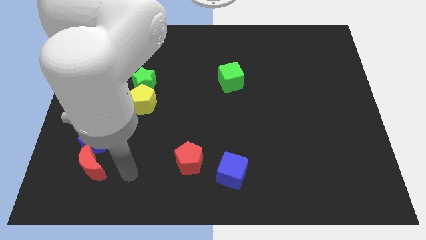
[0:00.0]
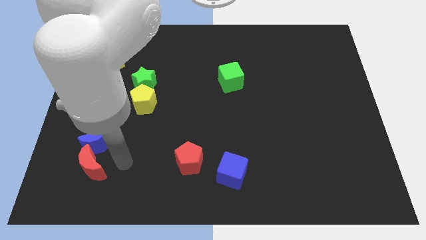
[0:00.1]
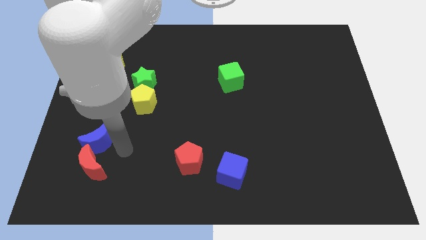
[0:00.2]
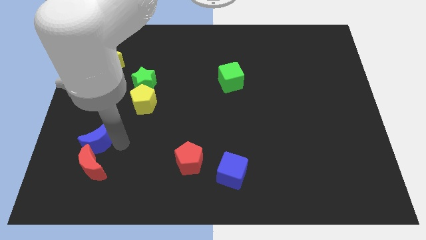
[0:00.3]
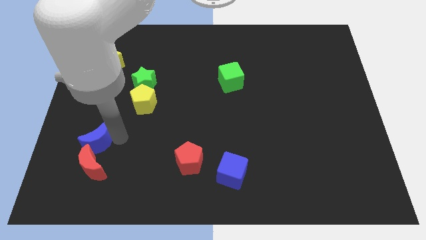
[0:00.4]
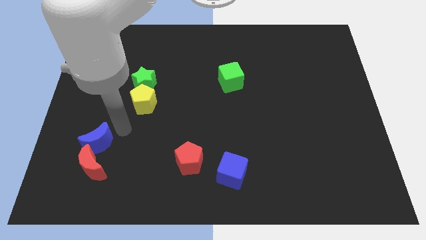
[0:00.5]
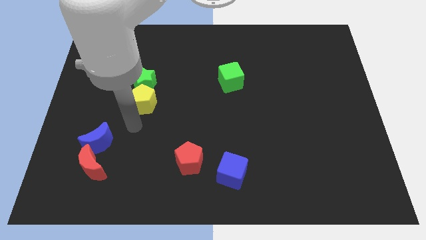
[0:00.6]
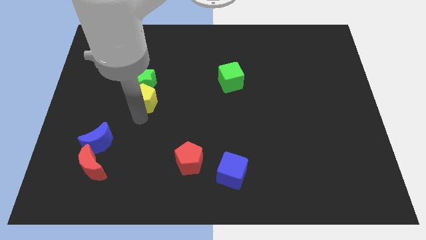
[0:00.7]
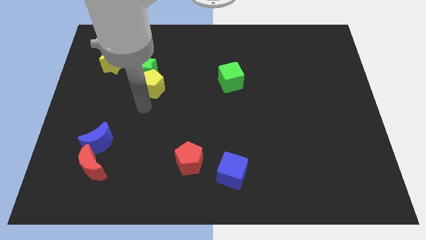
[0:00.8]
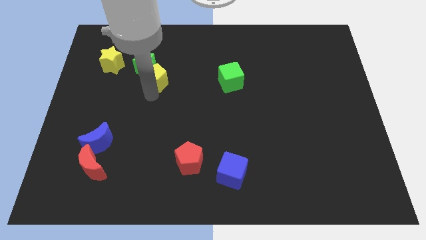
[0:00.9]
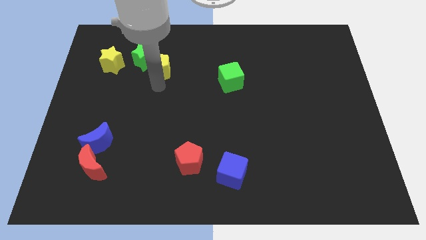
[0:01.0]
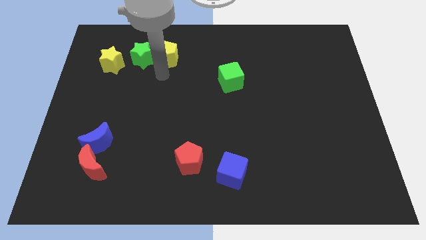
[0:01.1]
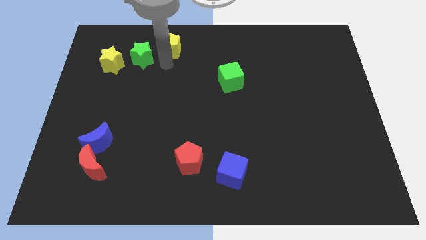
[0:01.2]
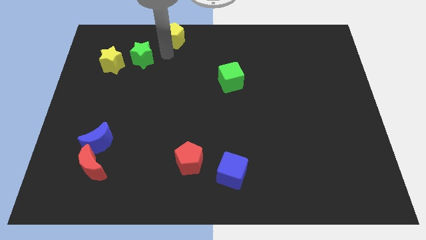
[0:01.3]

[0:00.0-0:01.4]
pull the green star apart from the yellow pentagon

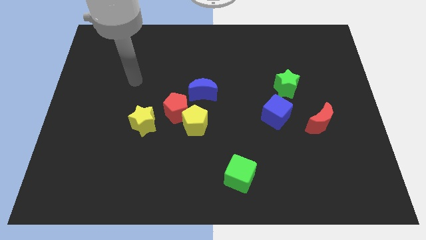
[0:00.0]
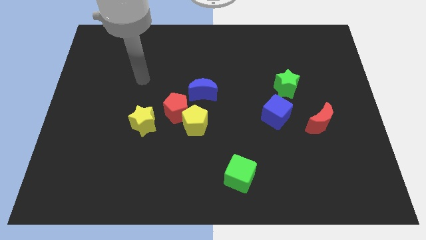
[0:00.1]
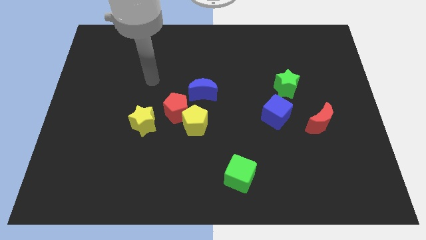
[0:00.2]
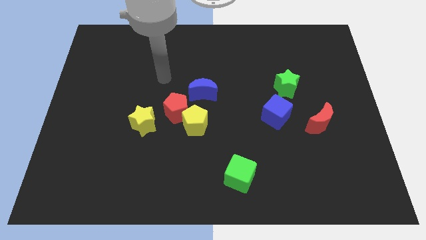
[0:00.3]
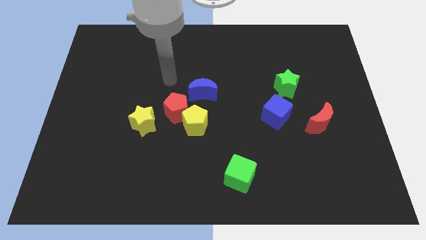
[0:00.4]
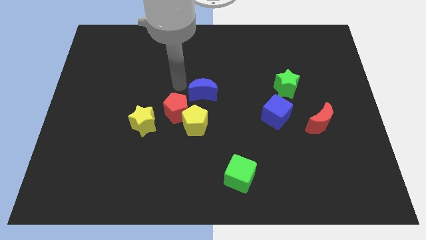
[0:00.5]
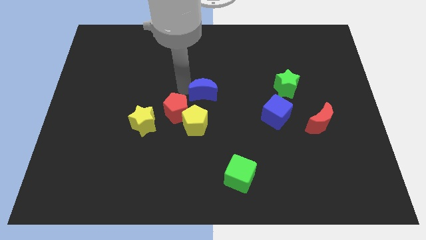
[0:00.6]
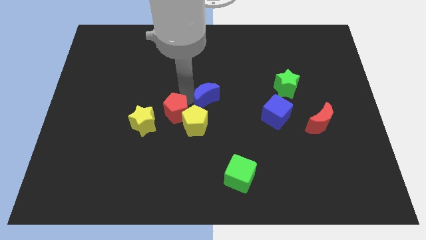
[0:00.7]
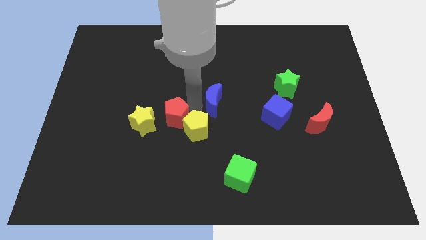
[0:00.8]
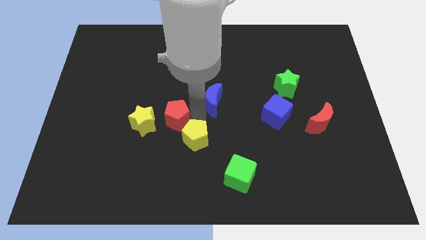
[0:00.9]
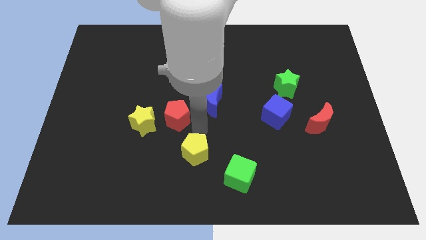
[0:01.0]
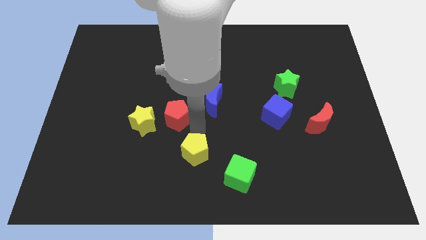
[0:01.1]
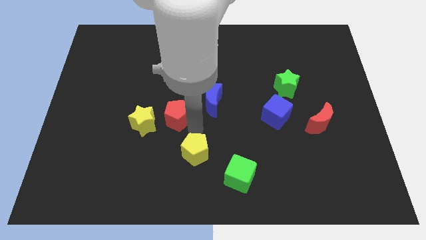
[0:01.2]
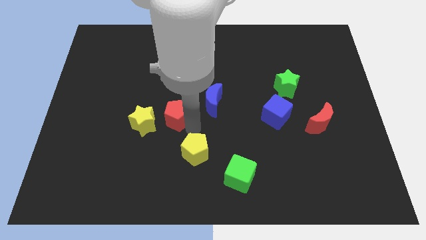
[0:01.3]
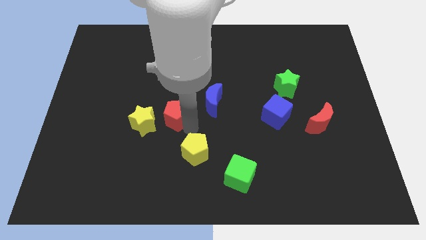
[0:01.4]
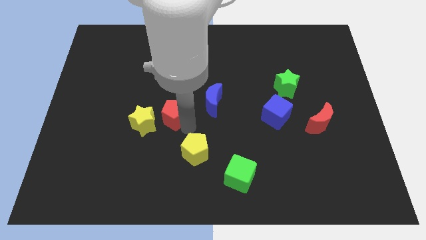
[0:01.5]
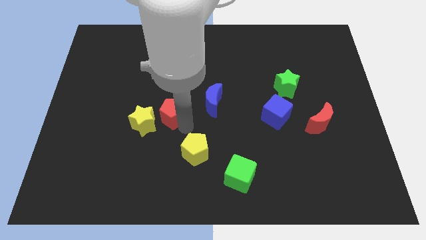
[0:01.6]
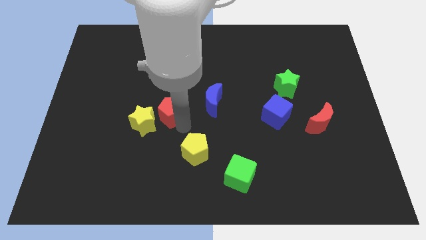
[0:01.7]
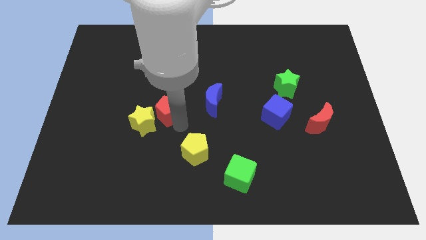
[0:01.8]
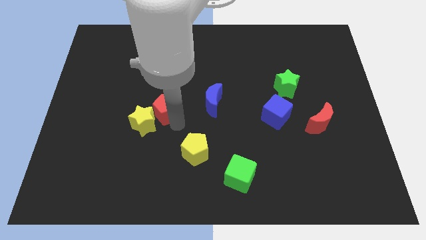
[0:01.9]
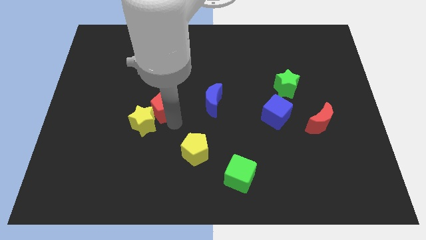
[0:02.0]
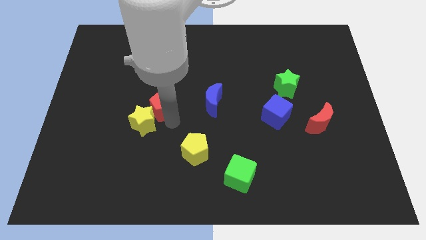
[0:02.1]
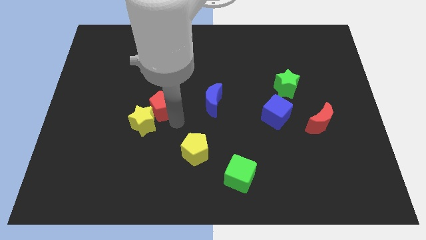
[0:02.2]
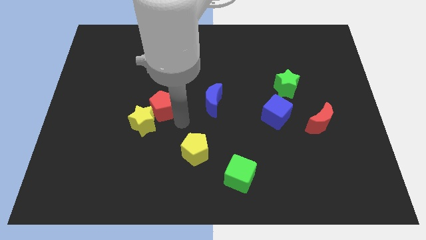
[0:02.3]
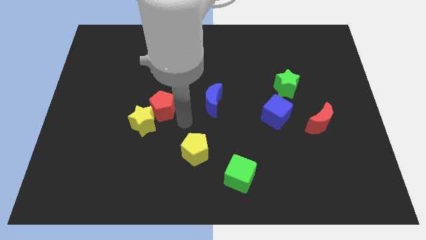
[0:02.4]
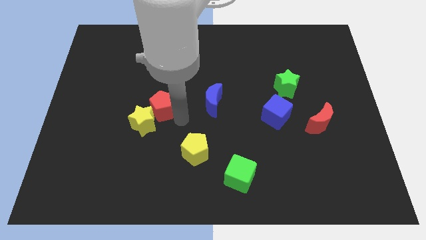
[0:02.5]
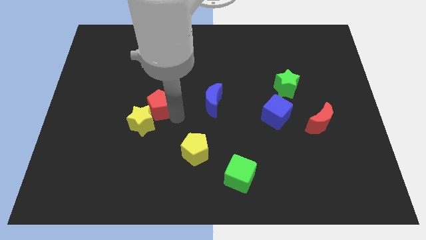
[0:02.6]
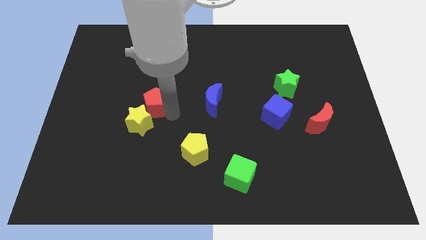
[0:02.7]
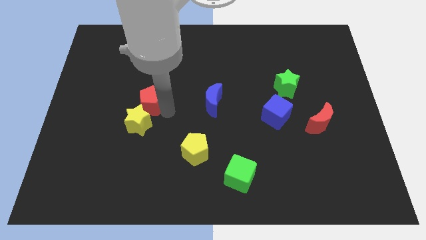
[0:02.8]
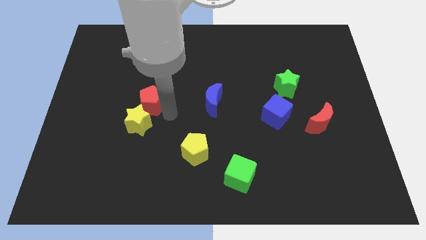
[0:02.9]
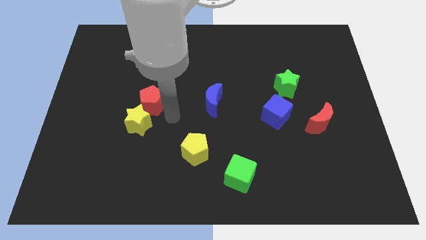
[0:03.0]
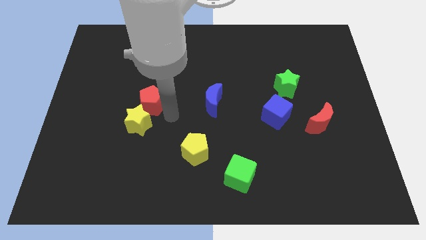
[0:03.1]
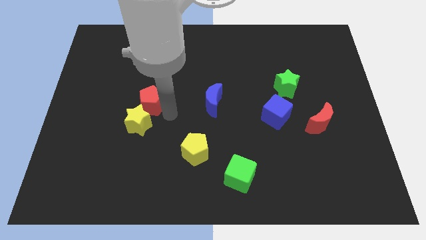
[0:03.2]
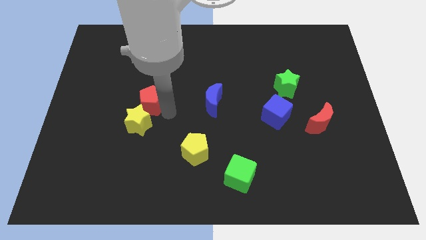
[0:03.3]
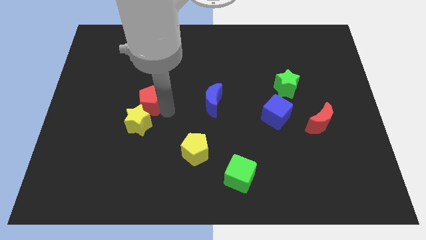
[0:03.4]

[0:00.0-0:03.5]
move the red pentagon away from the group of blocks

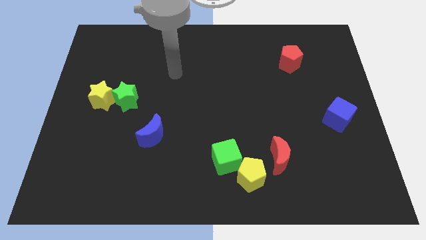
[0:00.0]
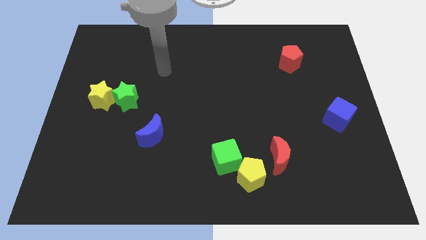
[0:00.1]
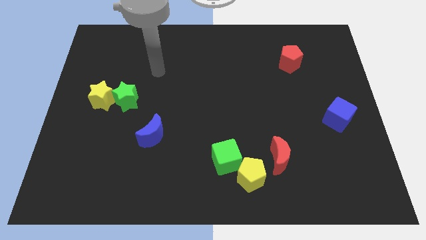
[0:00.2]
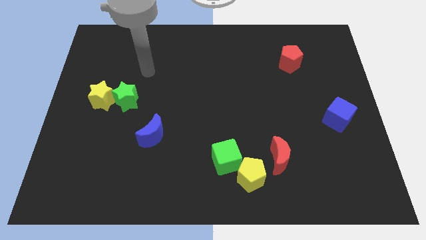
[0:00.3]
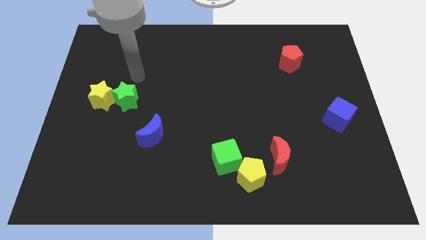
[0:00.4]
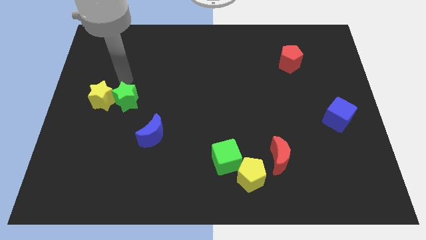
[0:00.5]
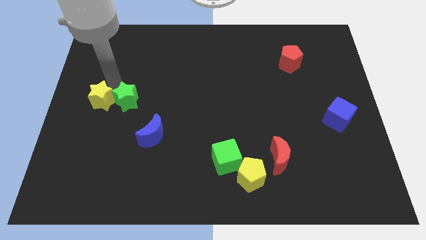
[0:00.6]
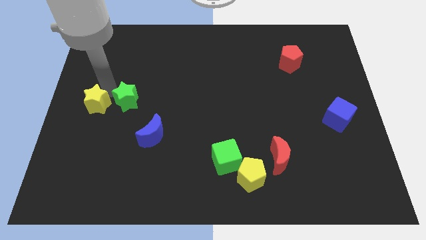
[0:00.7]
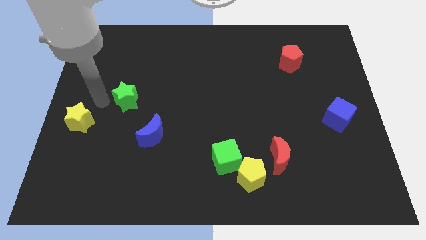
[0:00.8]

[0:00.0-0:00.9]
move the green star away from the yellow star

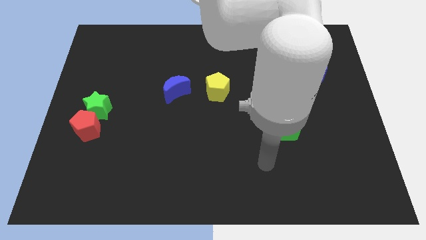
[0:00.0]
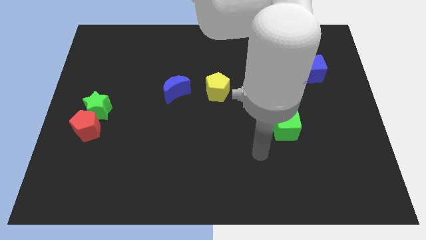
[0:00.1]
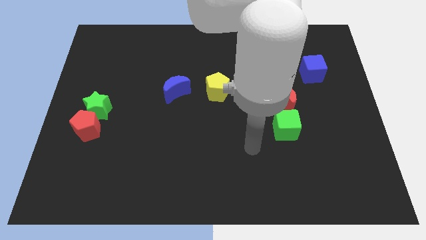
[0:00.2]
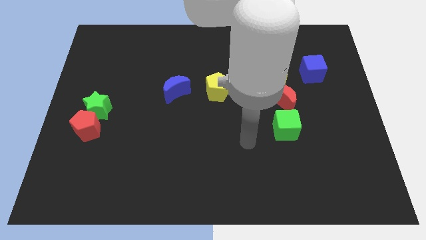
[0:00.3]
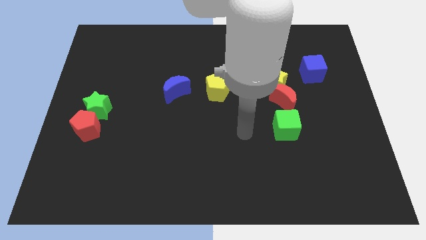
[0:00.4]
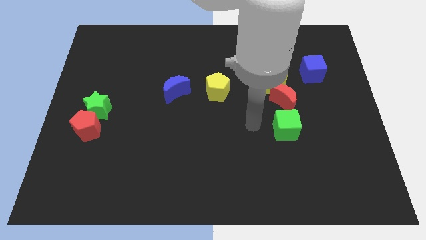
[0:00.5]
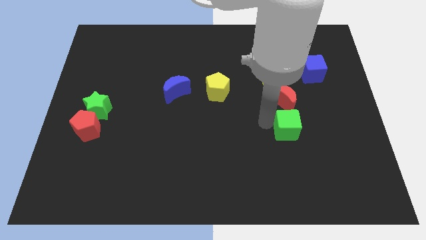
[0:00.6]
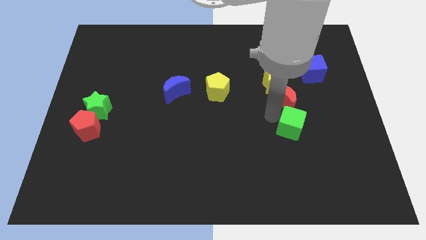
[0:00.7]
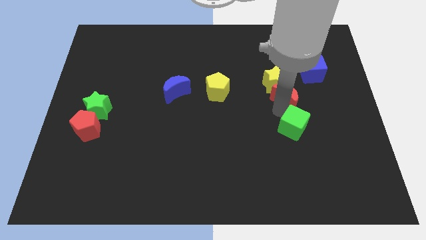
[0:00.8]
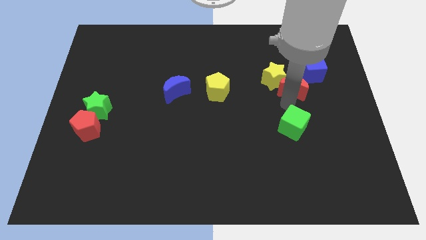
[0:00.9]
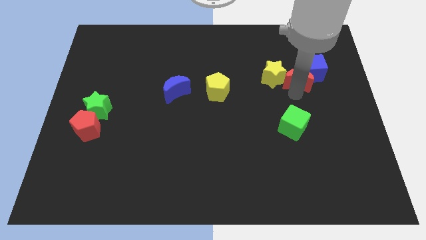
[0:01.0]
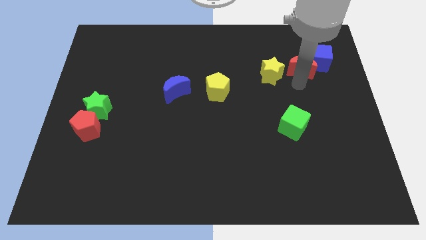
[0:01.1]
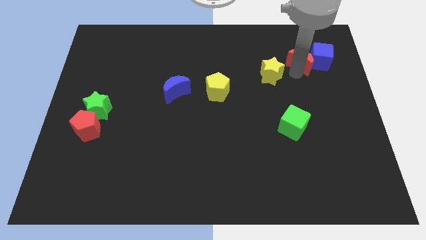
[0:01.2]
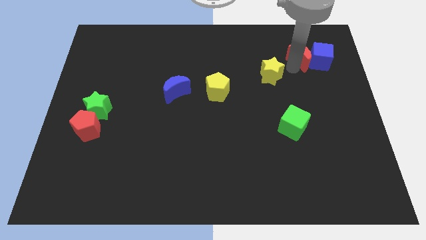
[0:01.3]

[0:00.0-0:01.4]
separate the yellow star from the red moon

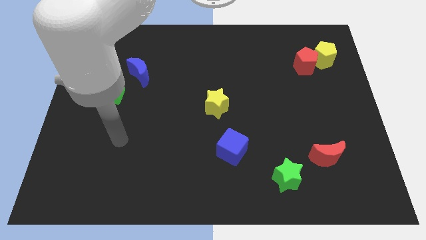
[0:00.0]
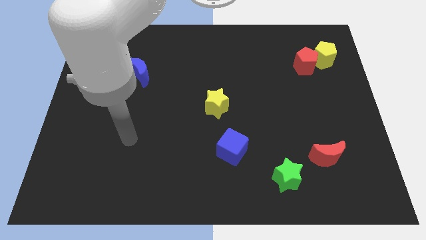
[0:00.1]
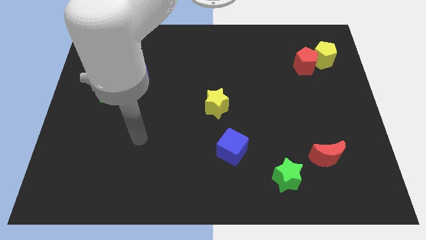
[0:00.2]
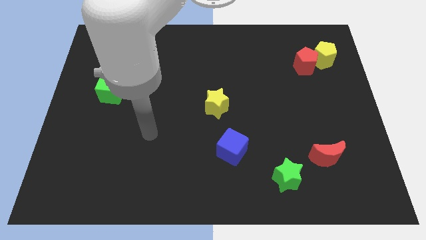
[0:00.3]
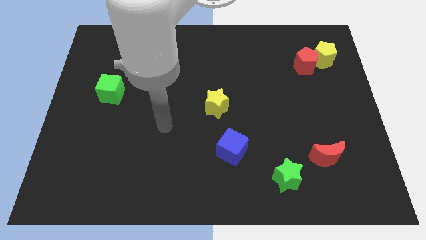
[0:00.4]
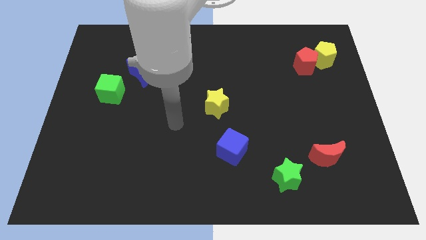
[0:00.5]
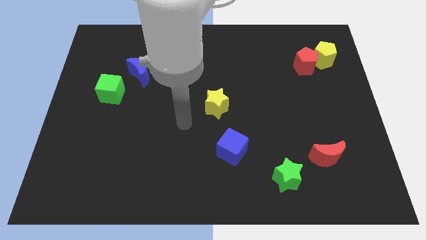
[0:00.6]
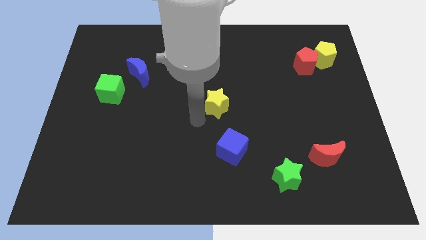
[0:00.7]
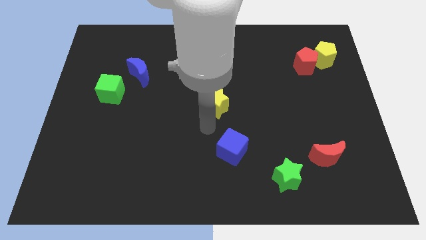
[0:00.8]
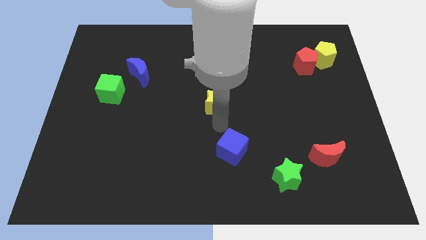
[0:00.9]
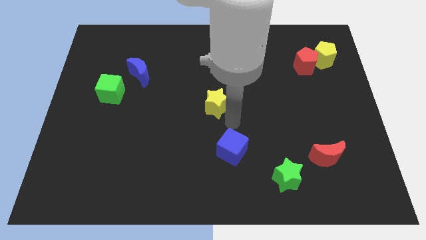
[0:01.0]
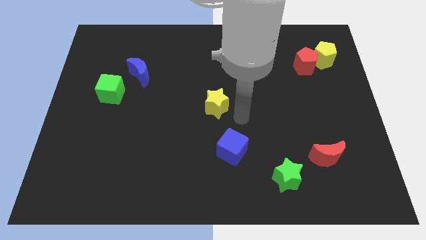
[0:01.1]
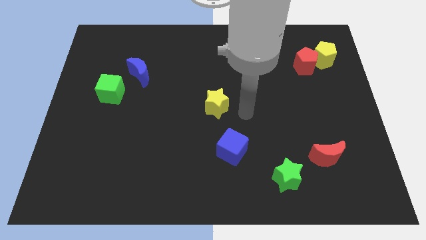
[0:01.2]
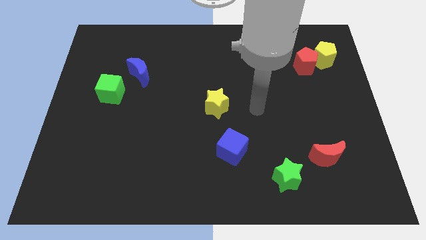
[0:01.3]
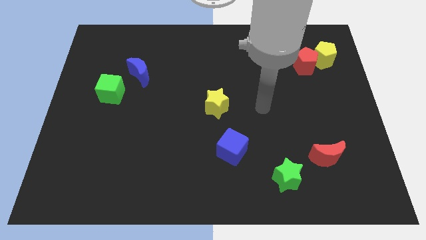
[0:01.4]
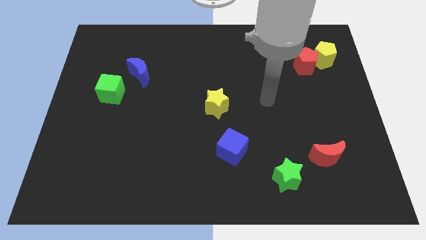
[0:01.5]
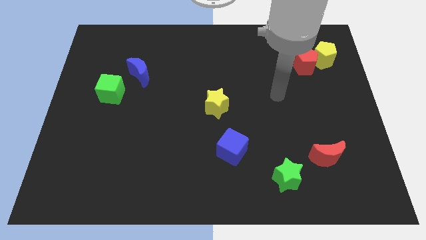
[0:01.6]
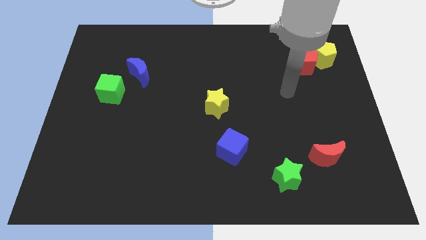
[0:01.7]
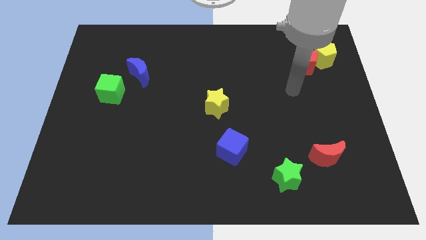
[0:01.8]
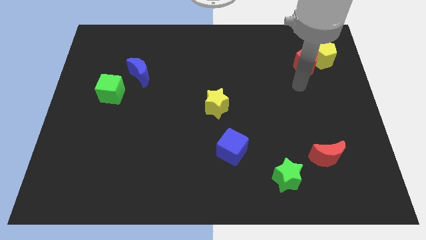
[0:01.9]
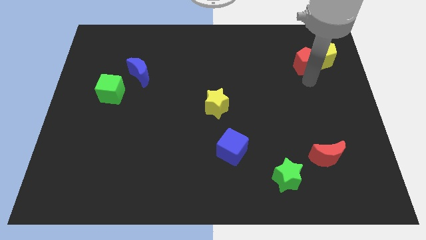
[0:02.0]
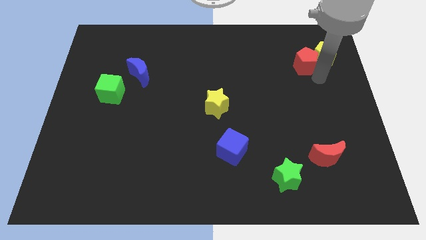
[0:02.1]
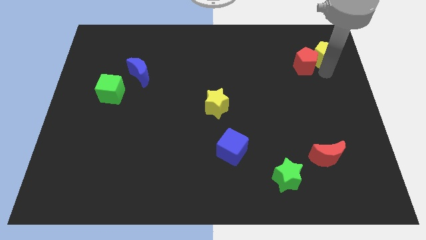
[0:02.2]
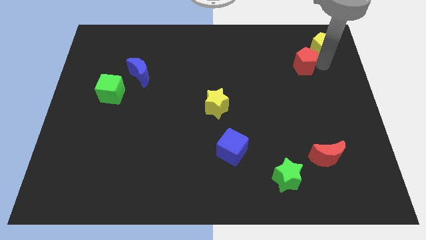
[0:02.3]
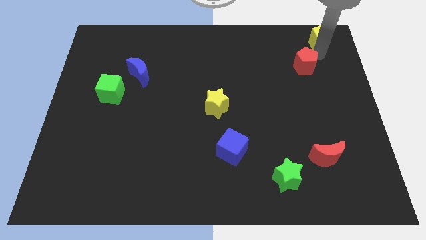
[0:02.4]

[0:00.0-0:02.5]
move the red pentagon away from the yellow pentagon
